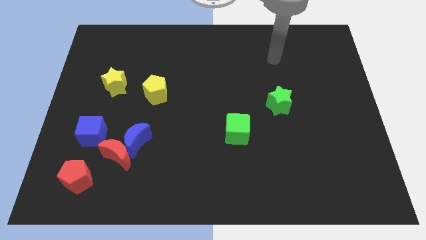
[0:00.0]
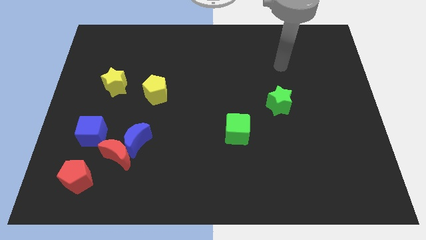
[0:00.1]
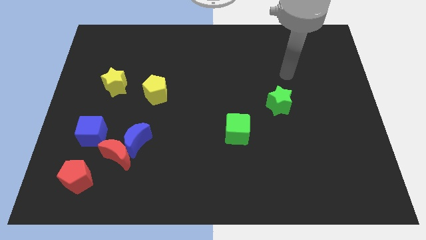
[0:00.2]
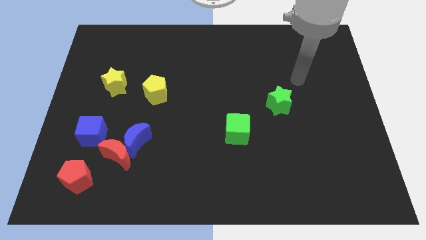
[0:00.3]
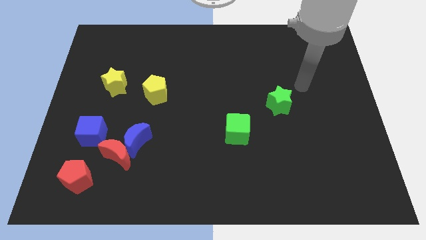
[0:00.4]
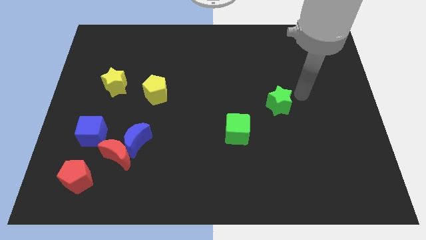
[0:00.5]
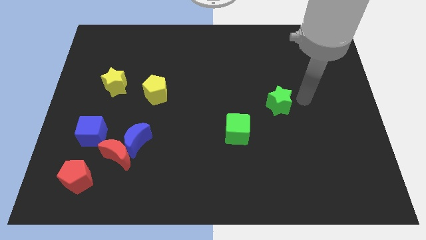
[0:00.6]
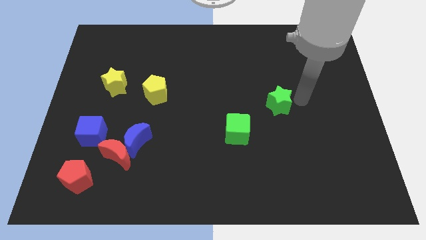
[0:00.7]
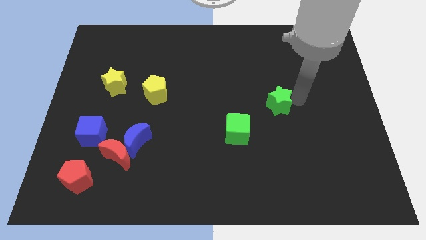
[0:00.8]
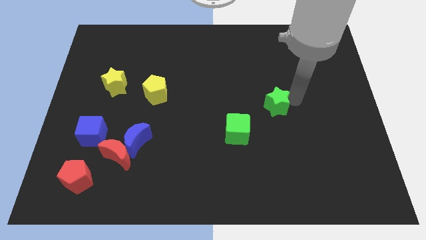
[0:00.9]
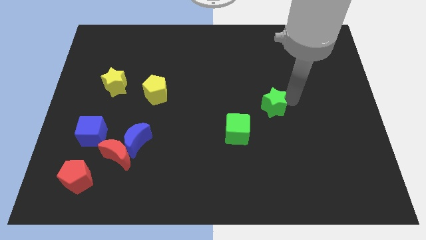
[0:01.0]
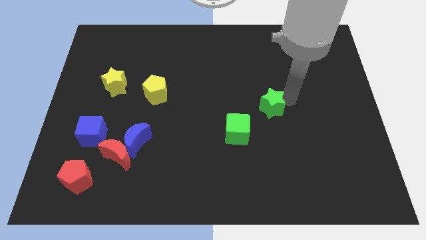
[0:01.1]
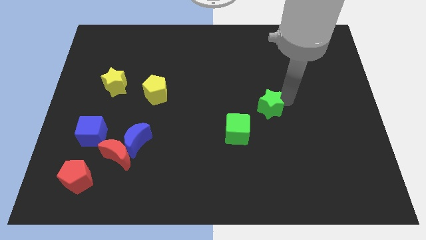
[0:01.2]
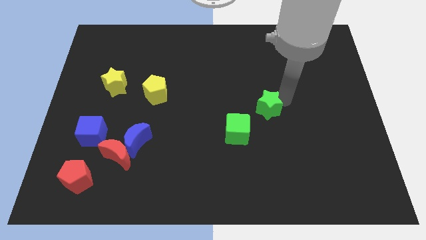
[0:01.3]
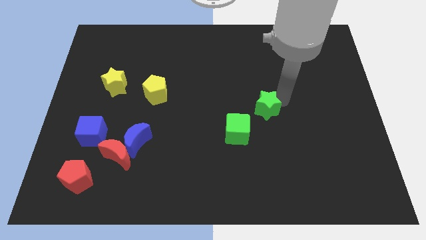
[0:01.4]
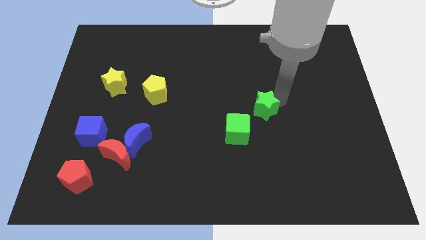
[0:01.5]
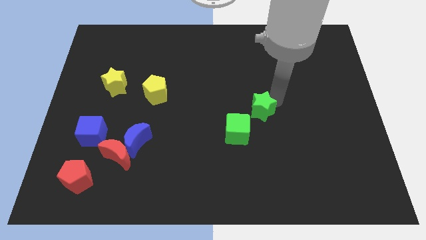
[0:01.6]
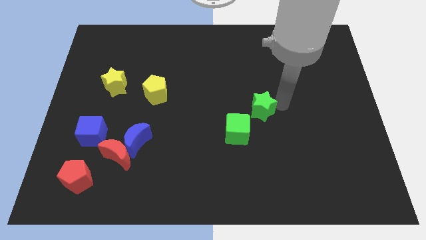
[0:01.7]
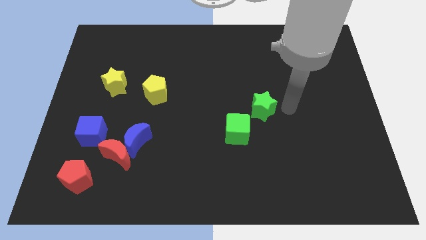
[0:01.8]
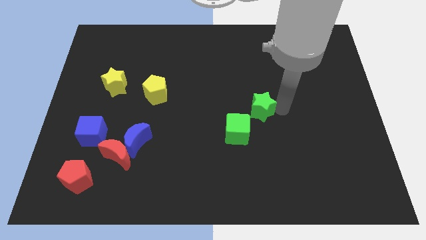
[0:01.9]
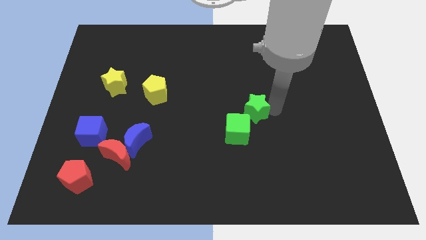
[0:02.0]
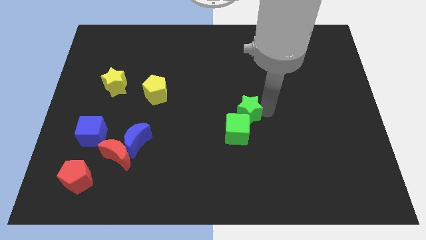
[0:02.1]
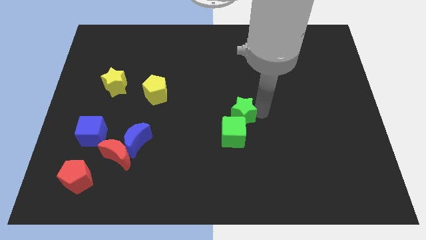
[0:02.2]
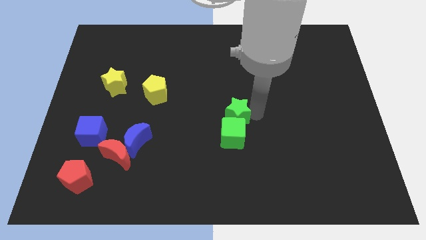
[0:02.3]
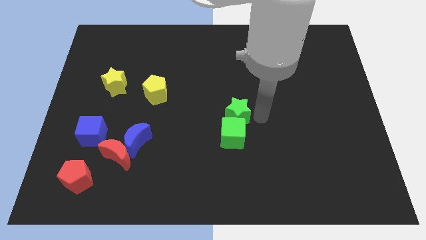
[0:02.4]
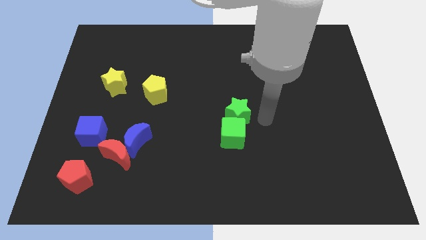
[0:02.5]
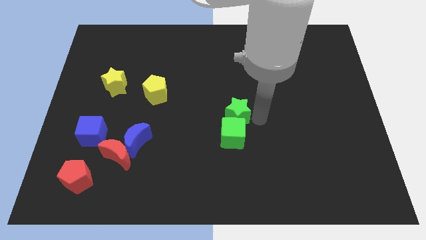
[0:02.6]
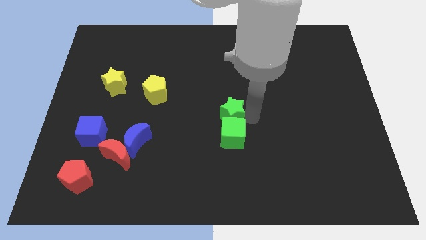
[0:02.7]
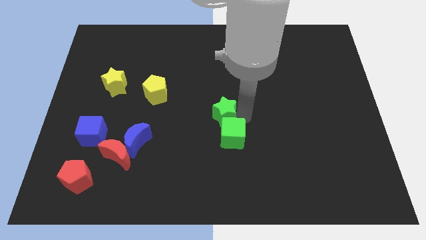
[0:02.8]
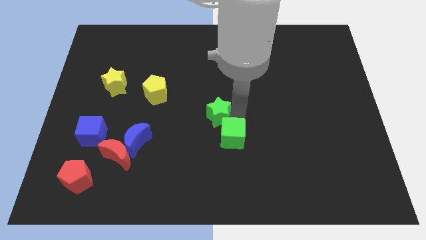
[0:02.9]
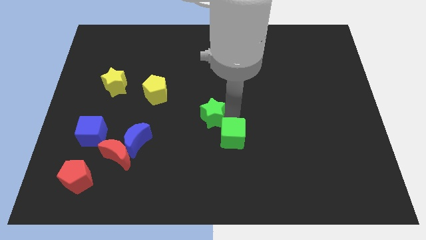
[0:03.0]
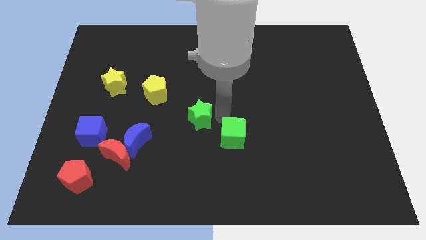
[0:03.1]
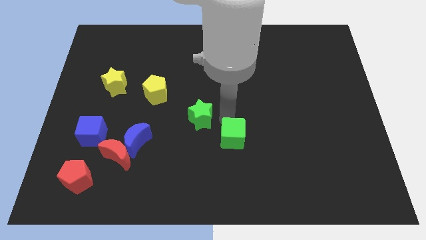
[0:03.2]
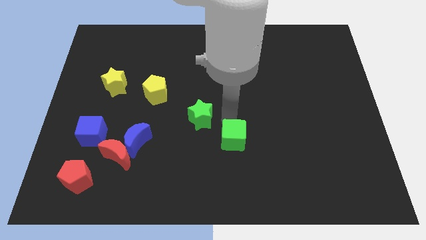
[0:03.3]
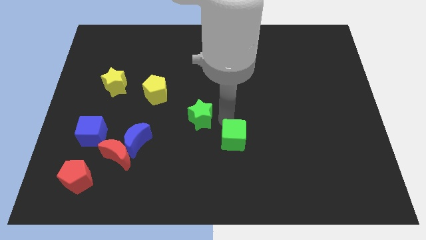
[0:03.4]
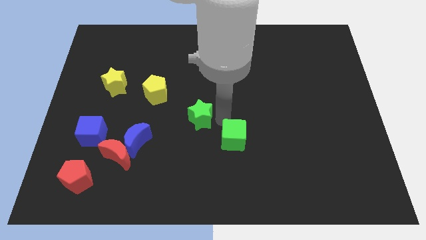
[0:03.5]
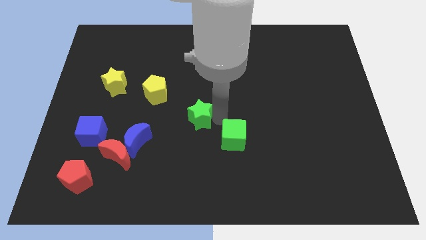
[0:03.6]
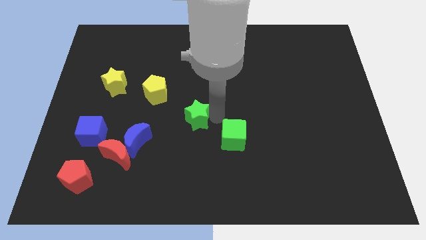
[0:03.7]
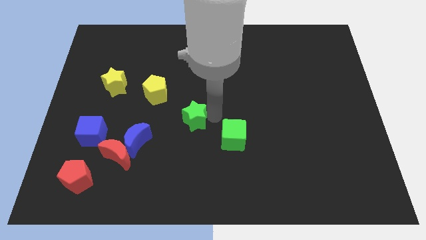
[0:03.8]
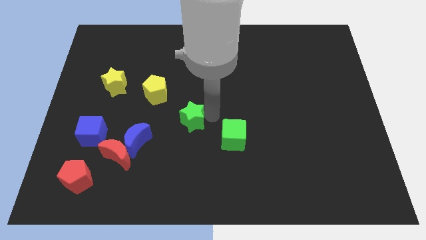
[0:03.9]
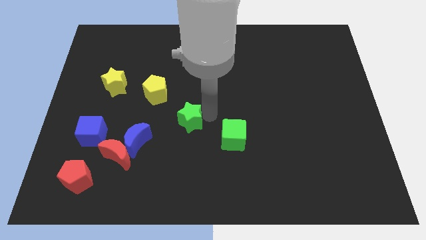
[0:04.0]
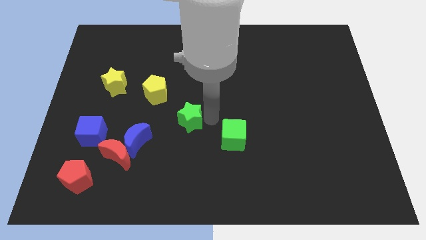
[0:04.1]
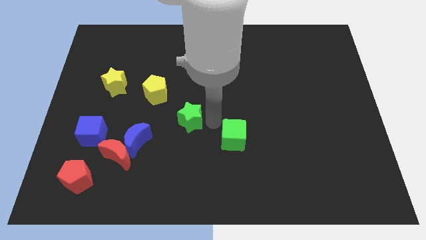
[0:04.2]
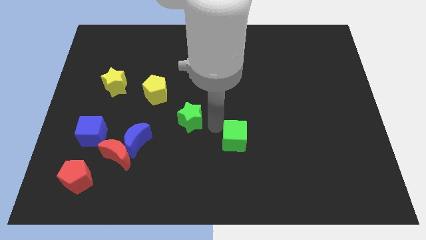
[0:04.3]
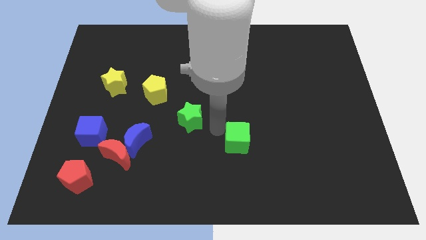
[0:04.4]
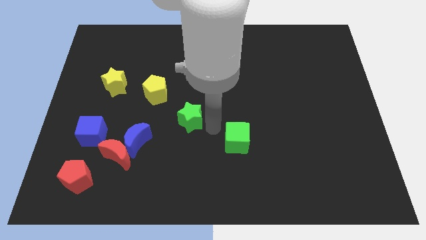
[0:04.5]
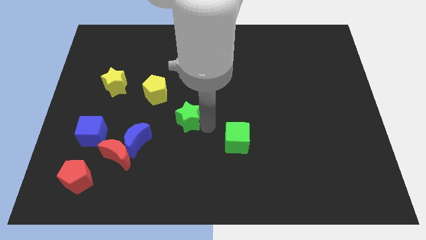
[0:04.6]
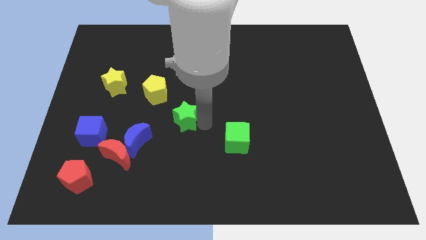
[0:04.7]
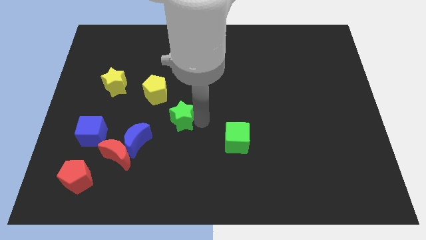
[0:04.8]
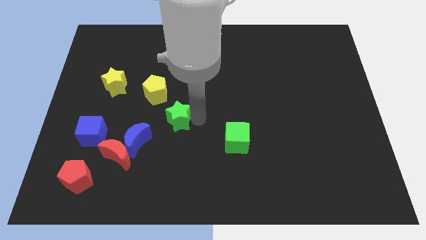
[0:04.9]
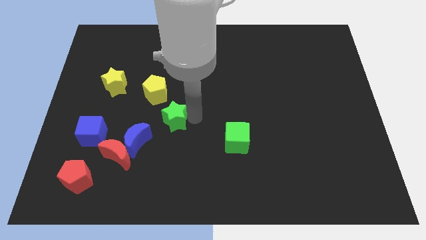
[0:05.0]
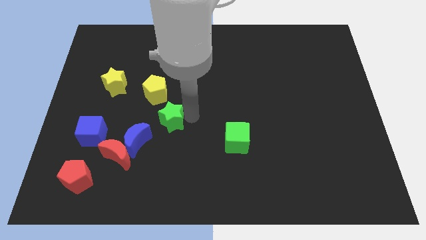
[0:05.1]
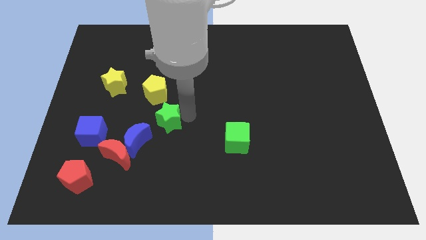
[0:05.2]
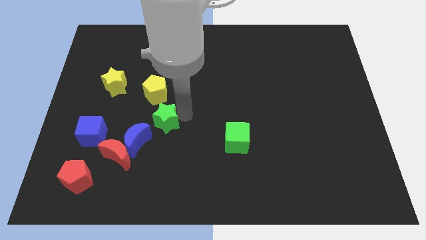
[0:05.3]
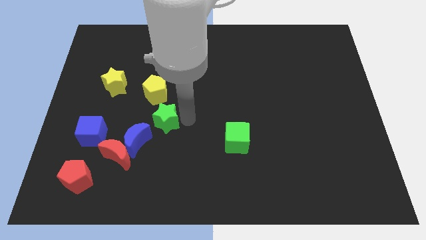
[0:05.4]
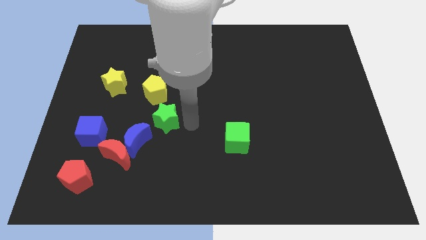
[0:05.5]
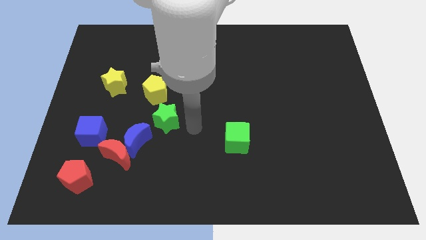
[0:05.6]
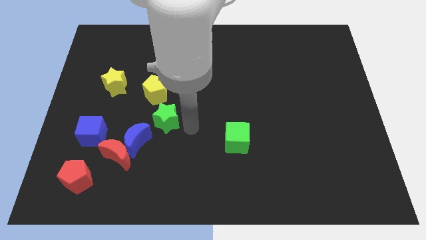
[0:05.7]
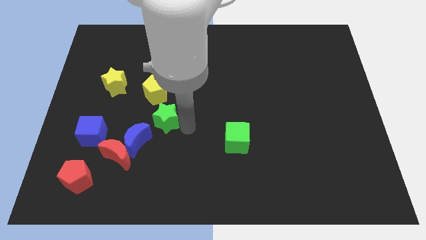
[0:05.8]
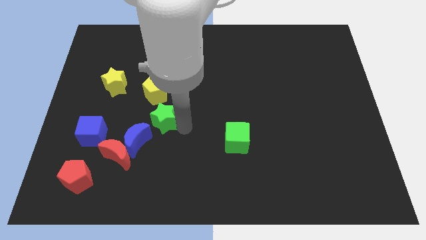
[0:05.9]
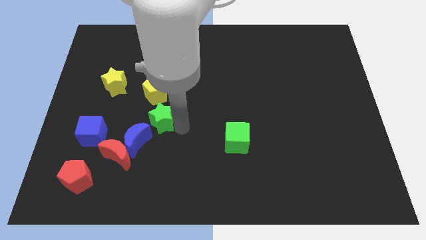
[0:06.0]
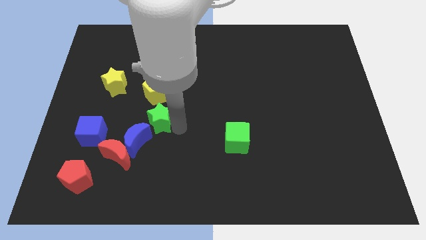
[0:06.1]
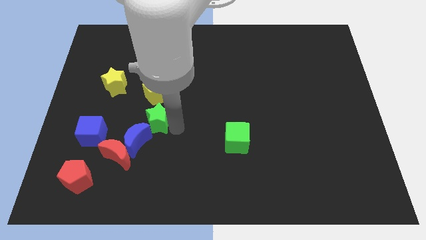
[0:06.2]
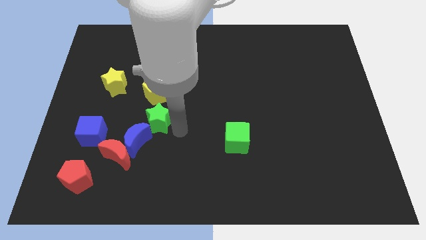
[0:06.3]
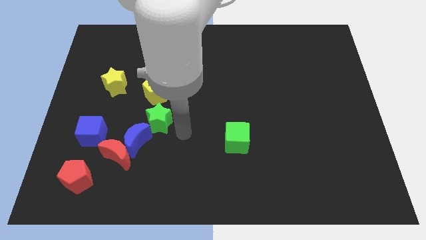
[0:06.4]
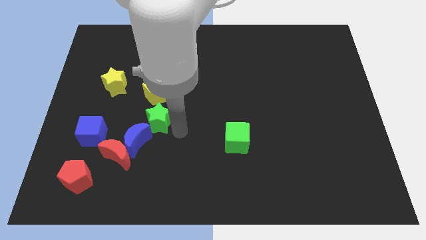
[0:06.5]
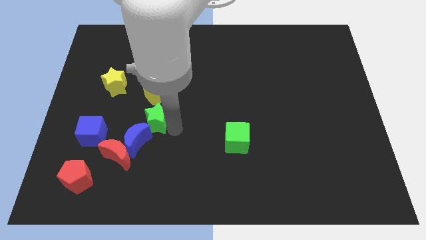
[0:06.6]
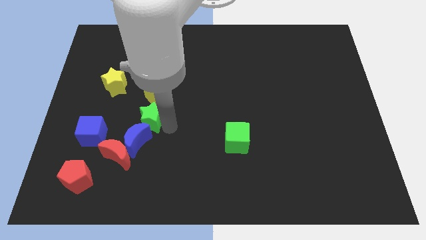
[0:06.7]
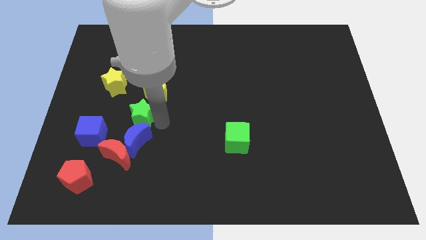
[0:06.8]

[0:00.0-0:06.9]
put the green star to the top left of the blue moon

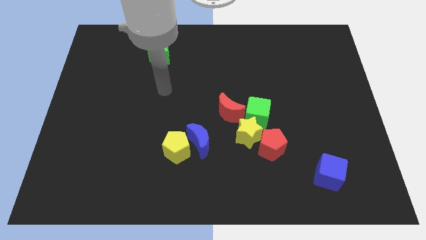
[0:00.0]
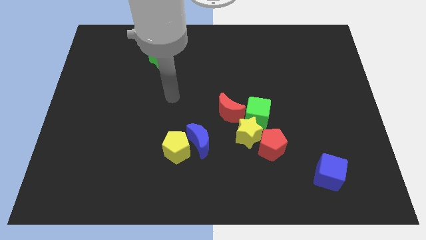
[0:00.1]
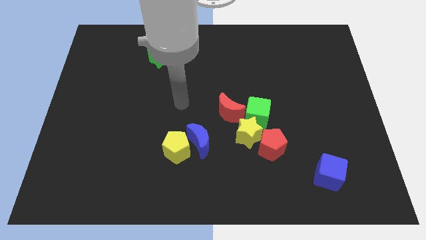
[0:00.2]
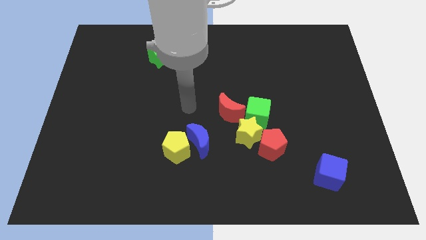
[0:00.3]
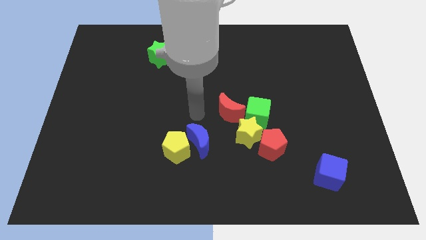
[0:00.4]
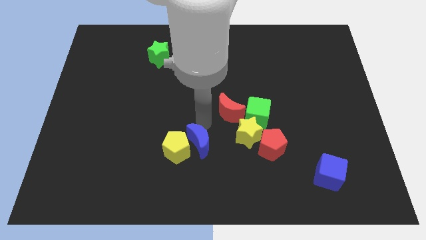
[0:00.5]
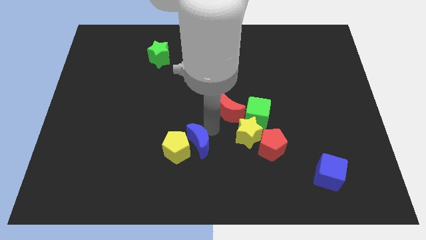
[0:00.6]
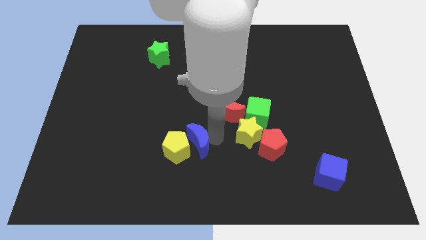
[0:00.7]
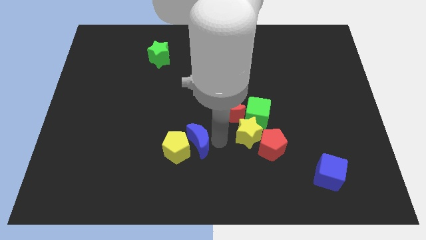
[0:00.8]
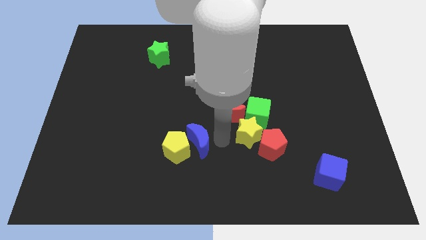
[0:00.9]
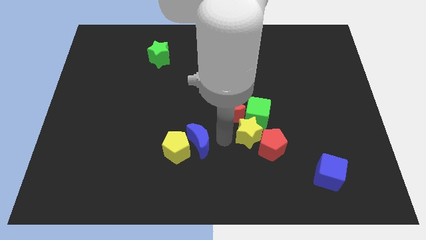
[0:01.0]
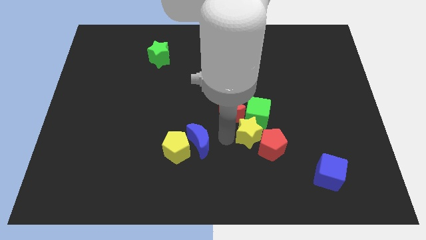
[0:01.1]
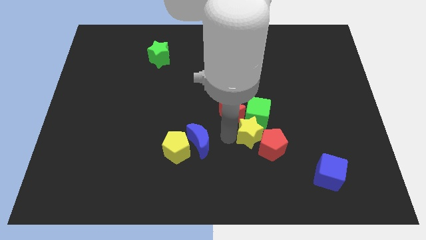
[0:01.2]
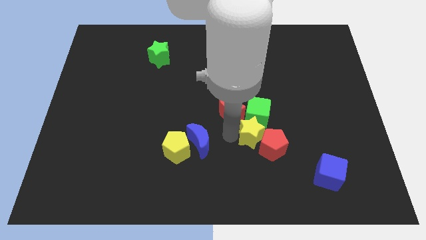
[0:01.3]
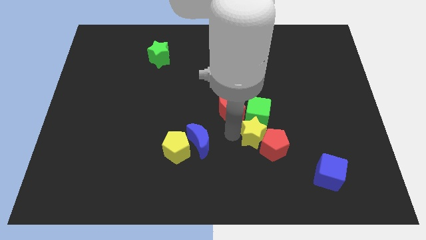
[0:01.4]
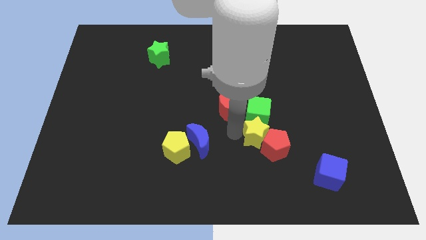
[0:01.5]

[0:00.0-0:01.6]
push the yellow star diagonally down and to the right of the green cube

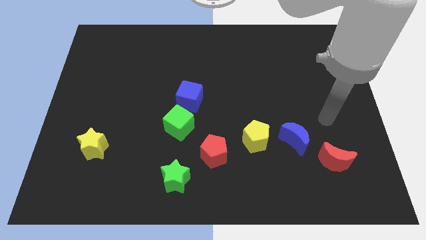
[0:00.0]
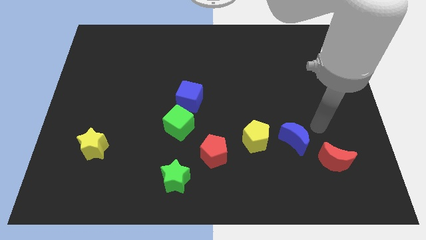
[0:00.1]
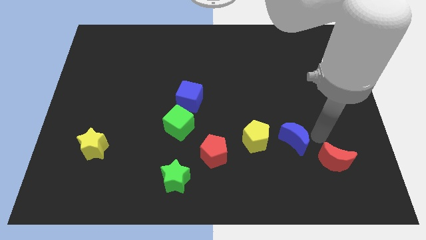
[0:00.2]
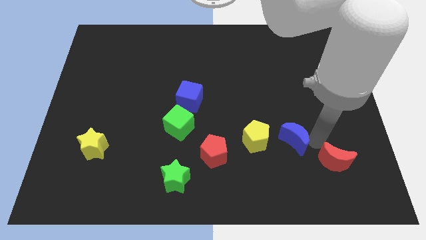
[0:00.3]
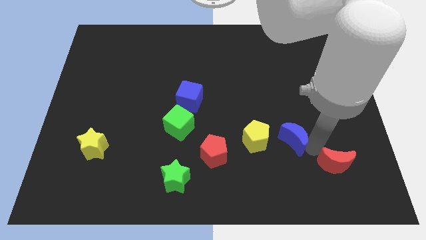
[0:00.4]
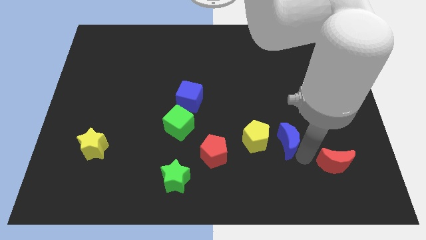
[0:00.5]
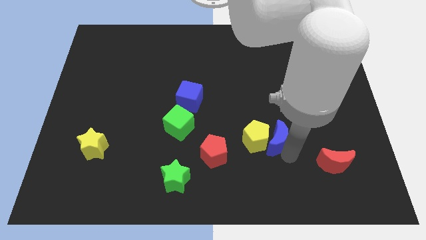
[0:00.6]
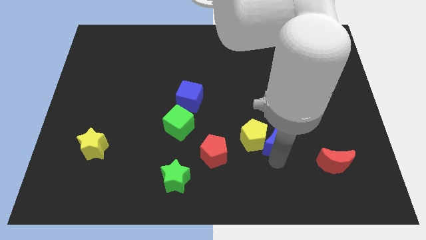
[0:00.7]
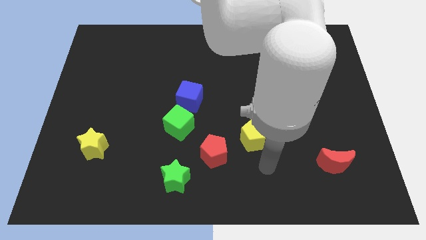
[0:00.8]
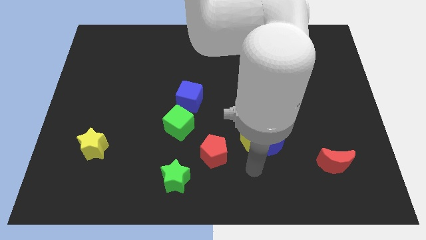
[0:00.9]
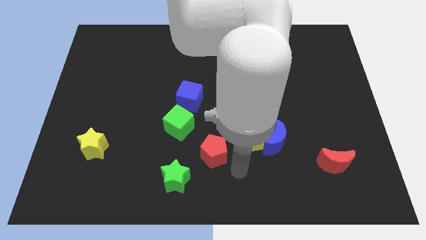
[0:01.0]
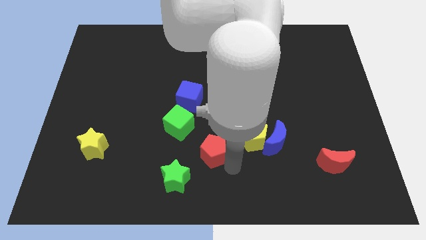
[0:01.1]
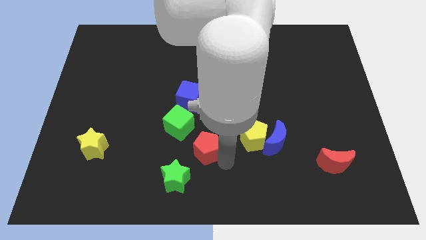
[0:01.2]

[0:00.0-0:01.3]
put the red pentagon to the bottom of the blue cube
